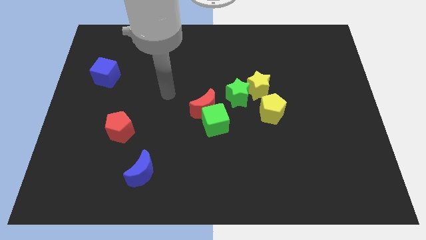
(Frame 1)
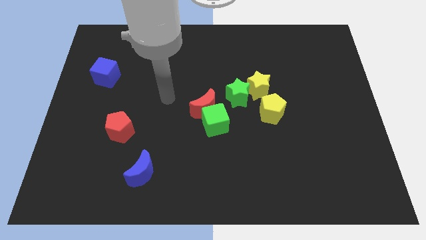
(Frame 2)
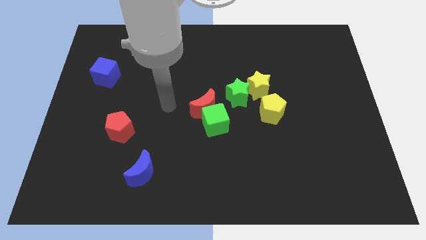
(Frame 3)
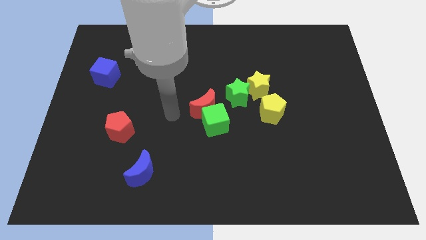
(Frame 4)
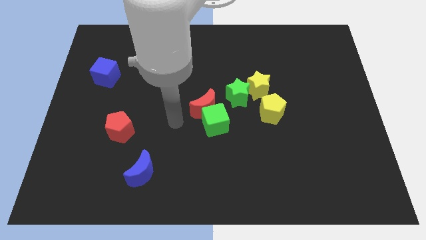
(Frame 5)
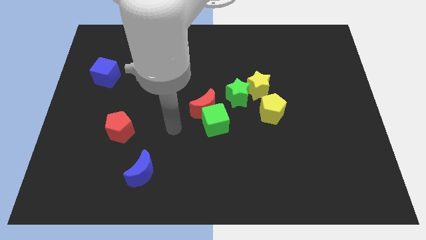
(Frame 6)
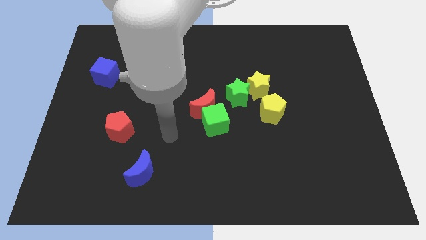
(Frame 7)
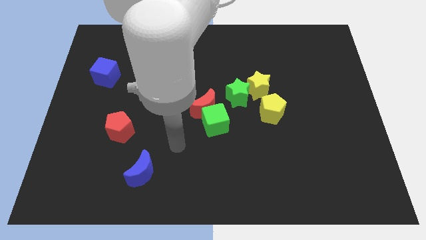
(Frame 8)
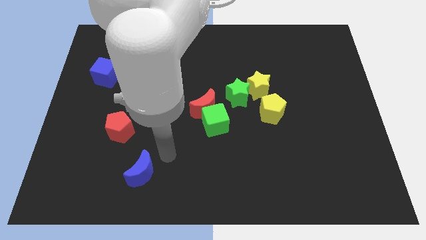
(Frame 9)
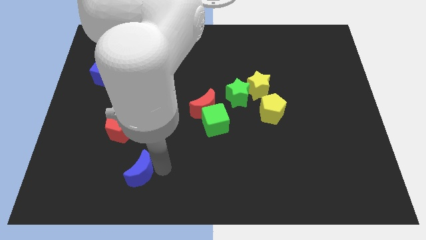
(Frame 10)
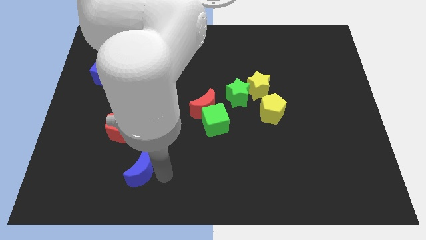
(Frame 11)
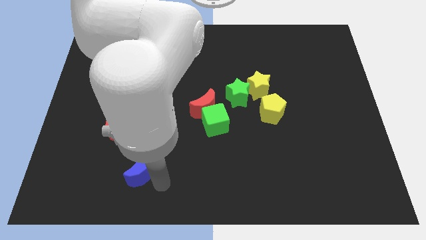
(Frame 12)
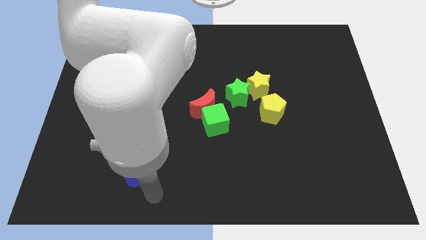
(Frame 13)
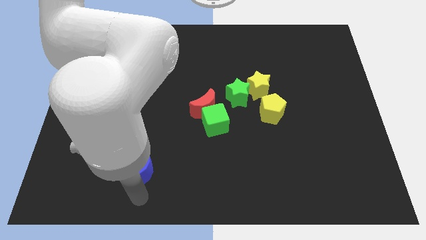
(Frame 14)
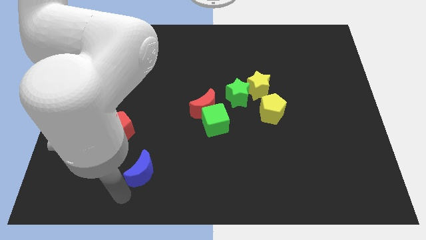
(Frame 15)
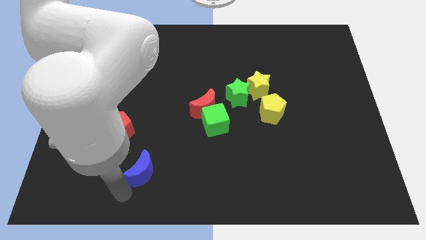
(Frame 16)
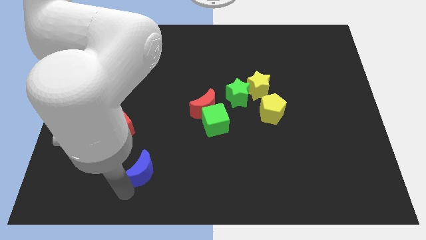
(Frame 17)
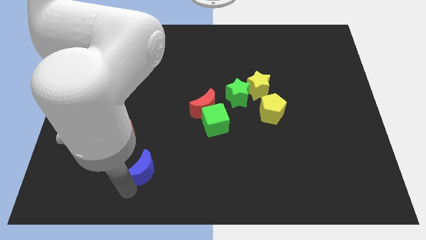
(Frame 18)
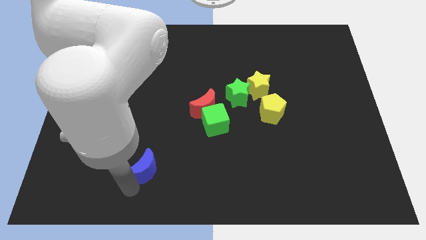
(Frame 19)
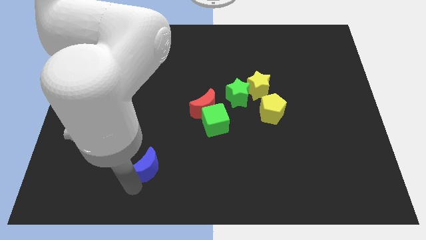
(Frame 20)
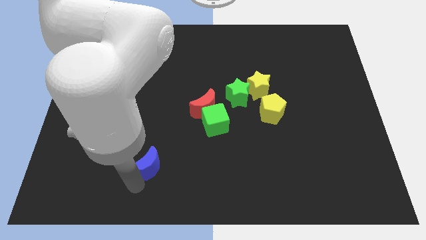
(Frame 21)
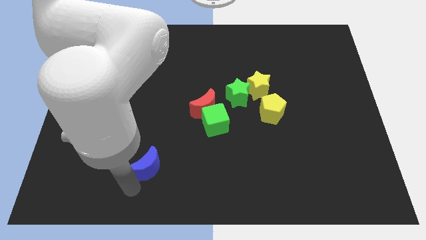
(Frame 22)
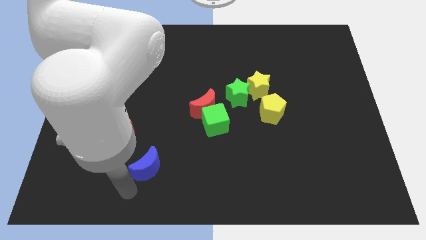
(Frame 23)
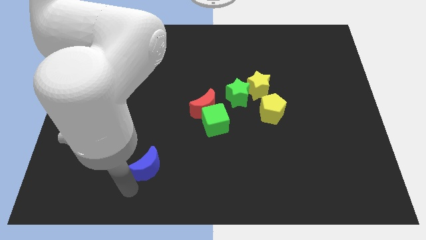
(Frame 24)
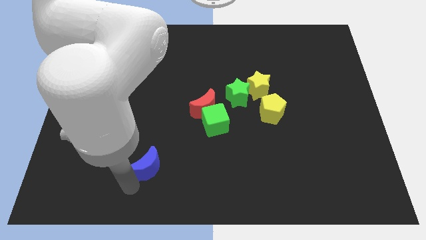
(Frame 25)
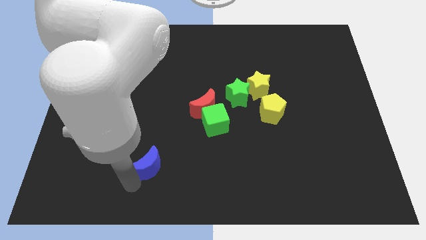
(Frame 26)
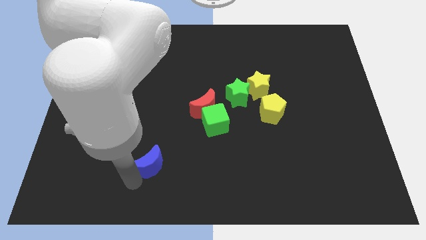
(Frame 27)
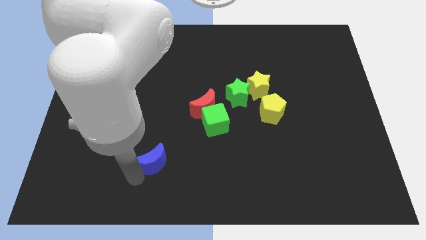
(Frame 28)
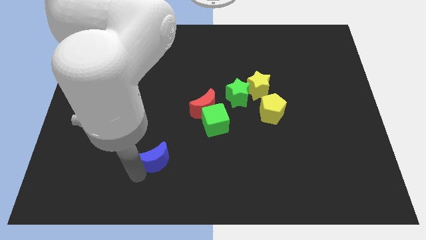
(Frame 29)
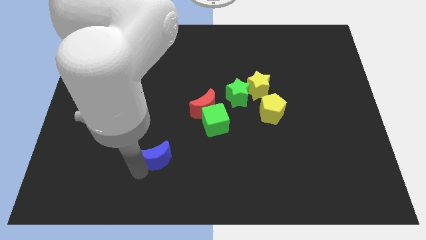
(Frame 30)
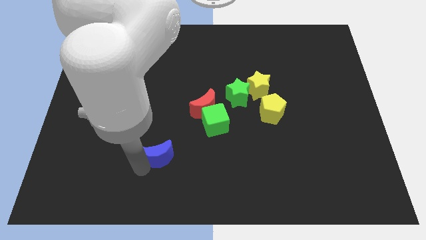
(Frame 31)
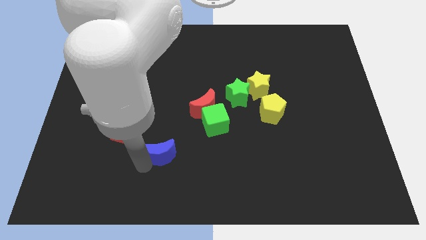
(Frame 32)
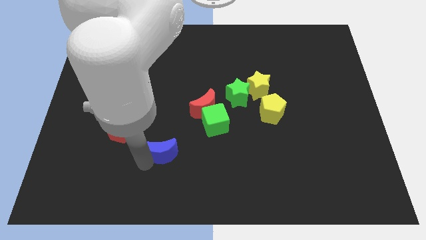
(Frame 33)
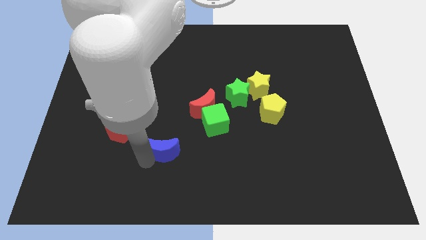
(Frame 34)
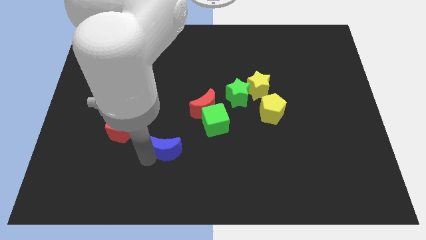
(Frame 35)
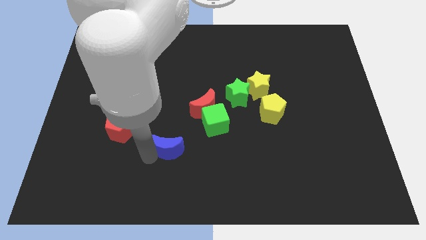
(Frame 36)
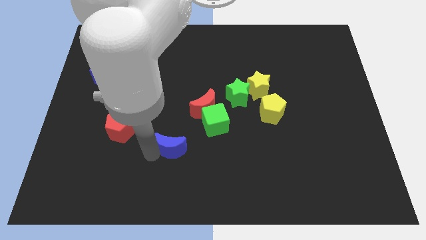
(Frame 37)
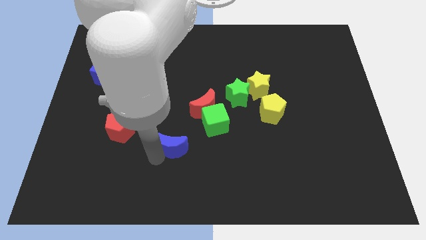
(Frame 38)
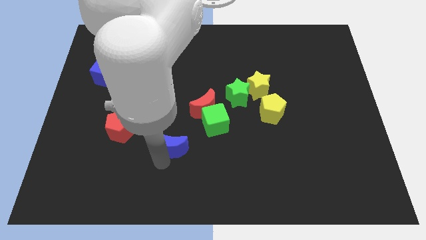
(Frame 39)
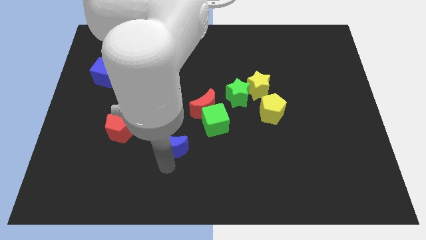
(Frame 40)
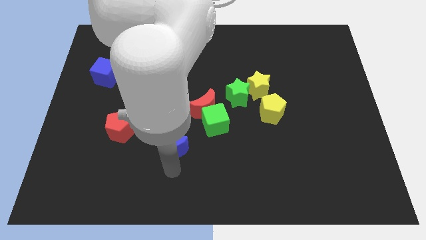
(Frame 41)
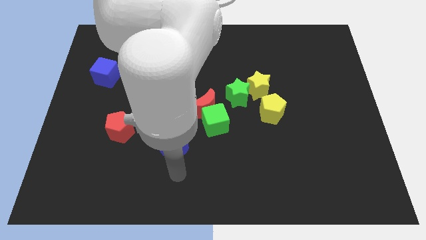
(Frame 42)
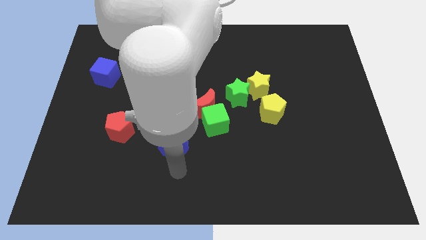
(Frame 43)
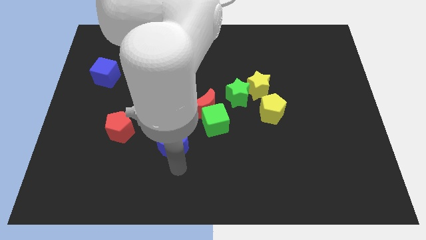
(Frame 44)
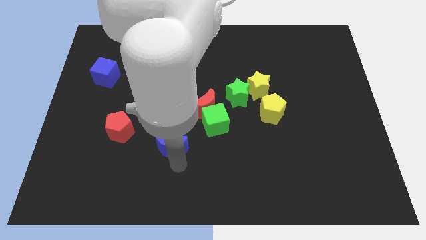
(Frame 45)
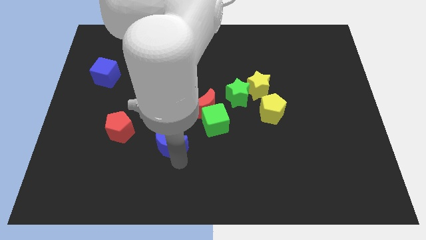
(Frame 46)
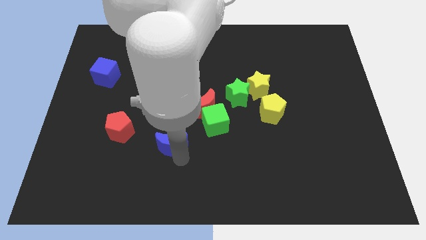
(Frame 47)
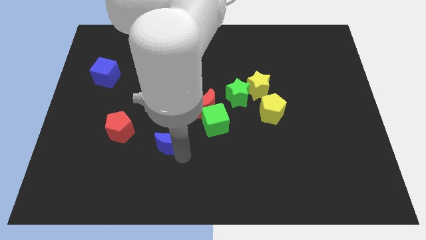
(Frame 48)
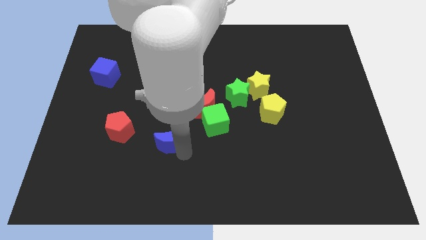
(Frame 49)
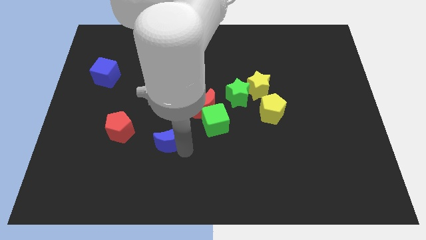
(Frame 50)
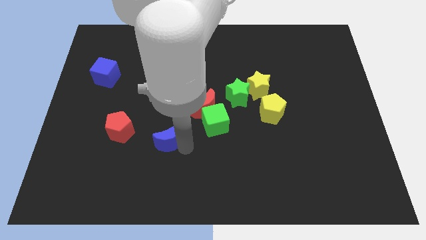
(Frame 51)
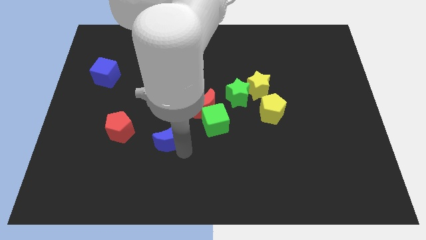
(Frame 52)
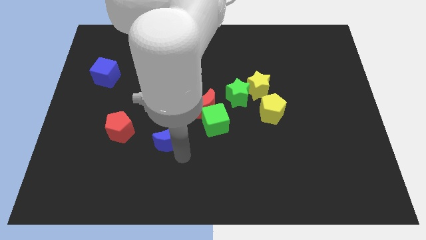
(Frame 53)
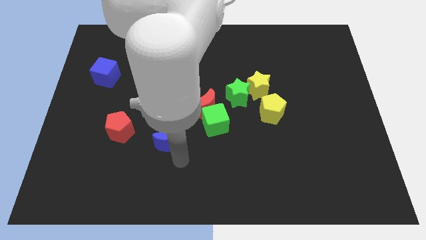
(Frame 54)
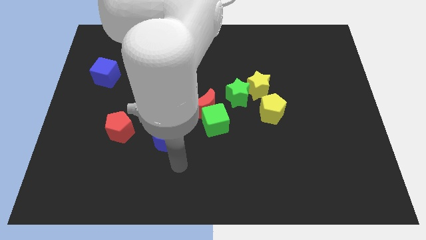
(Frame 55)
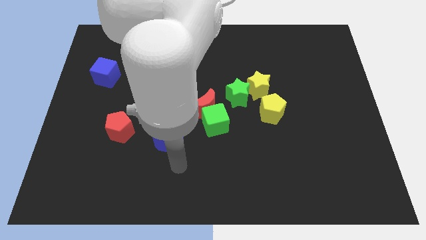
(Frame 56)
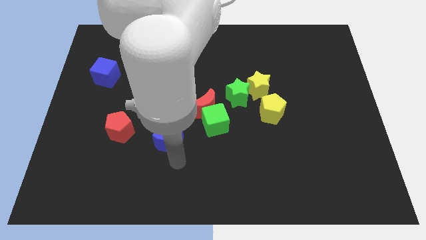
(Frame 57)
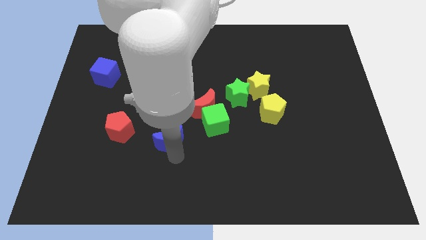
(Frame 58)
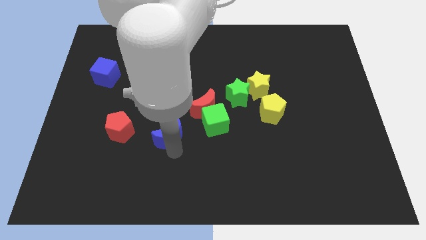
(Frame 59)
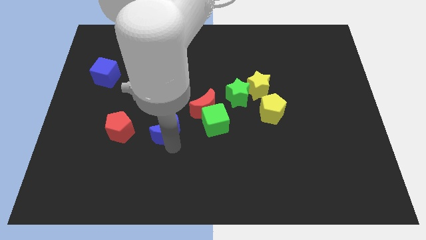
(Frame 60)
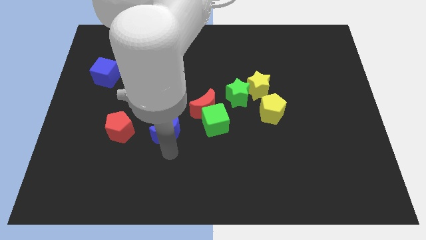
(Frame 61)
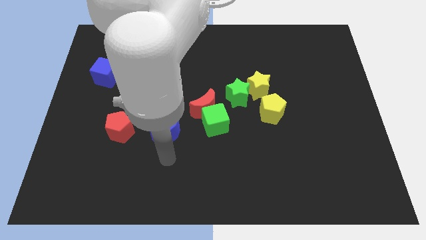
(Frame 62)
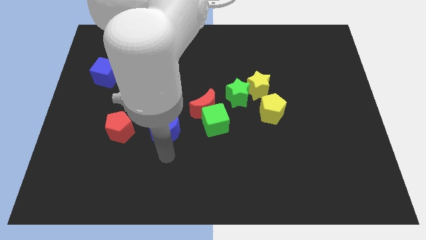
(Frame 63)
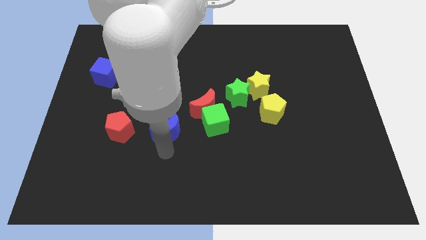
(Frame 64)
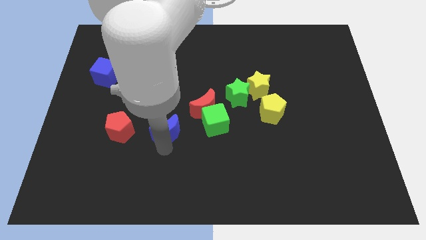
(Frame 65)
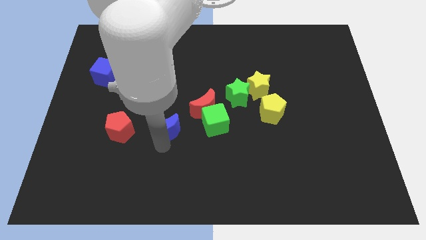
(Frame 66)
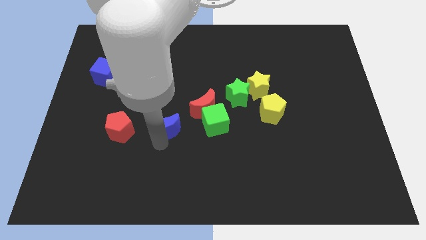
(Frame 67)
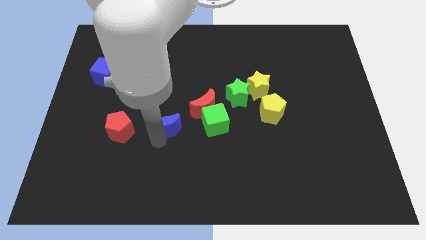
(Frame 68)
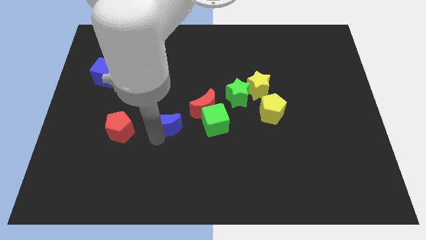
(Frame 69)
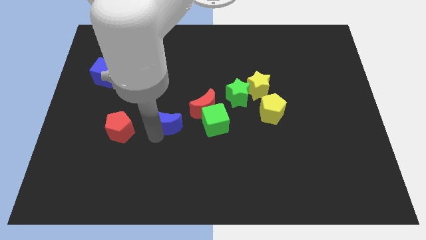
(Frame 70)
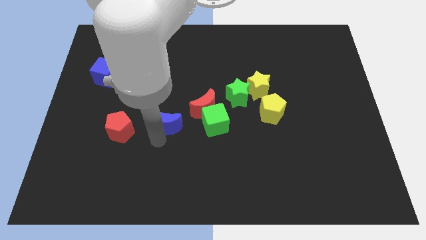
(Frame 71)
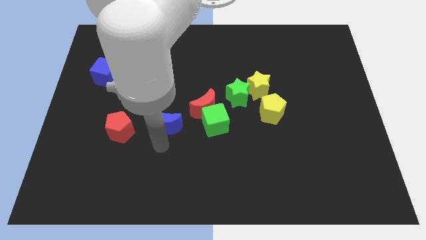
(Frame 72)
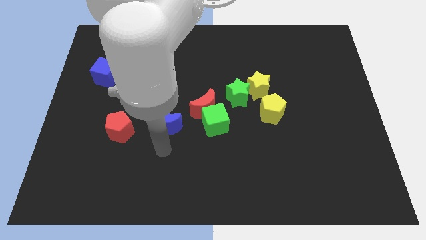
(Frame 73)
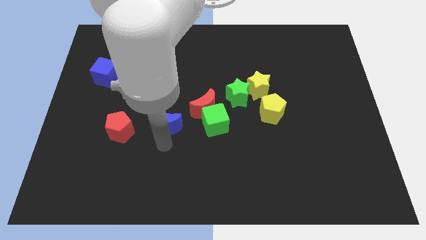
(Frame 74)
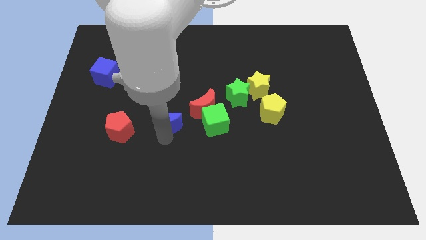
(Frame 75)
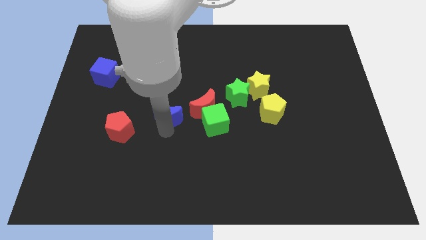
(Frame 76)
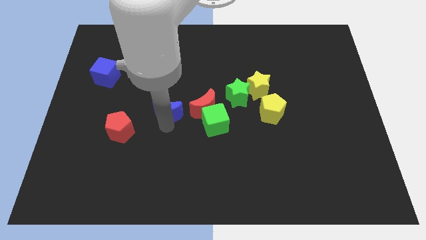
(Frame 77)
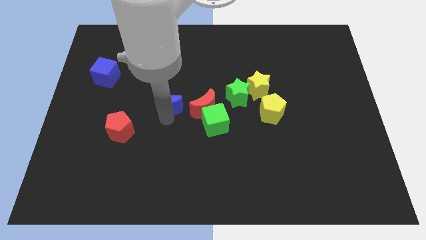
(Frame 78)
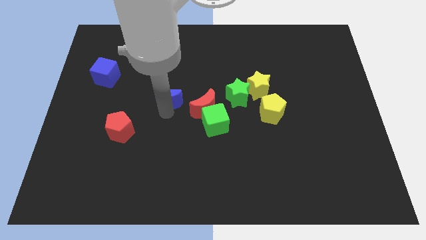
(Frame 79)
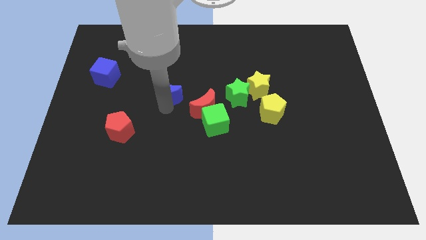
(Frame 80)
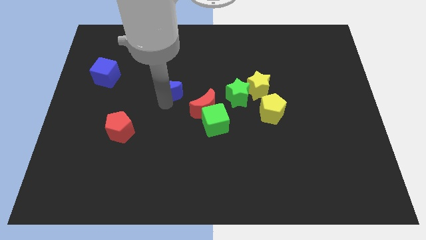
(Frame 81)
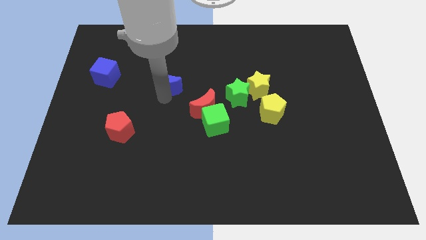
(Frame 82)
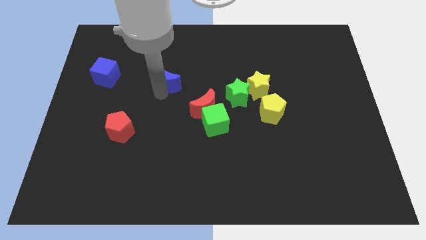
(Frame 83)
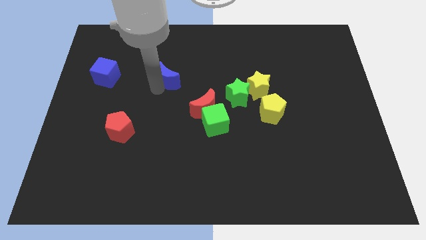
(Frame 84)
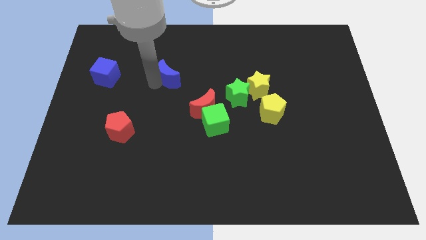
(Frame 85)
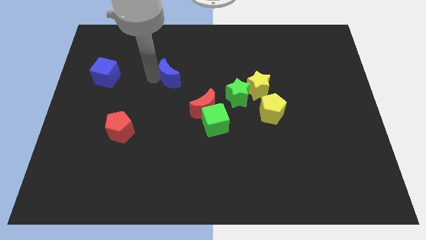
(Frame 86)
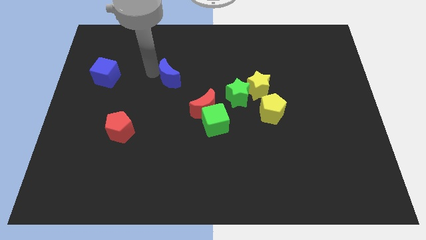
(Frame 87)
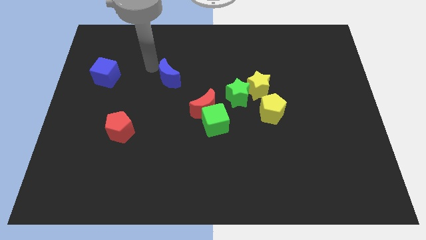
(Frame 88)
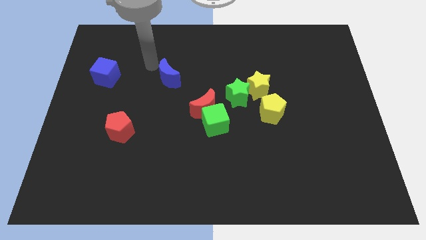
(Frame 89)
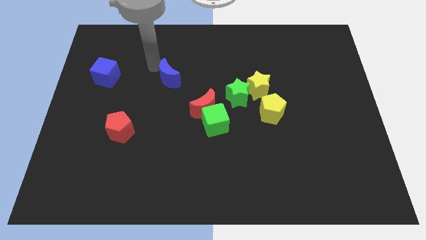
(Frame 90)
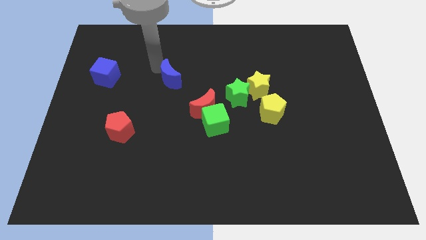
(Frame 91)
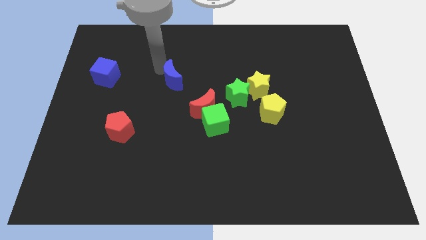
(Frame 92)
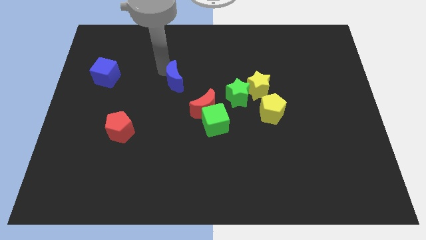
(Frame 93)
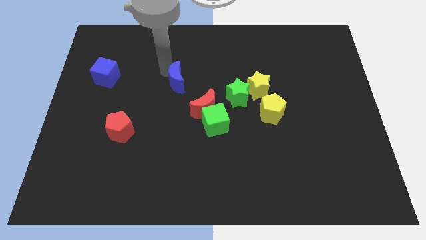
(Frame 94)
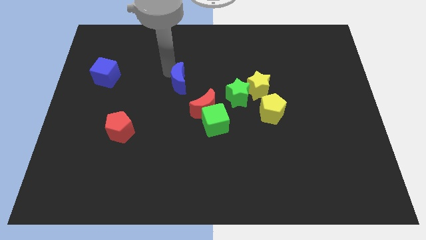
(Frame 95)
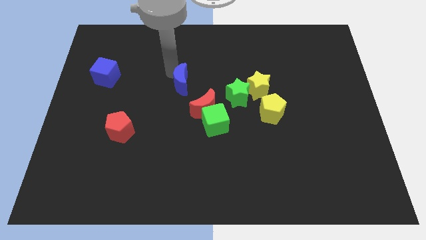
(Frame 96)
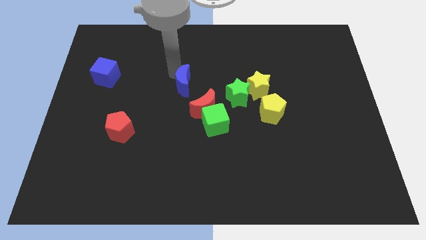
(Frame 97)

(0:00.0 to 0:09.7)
slide the blue moon to the left side of the green star
